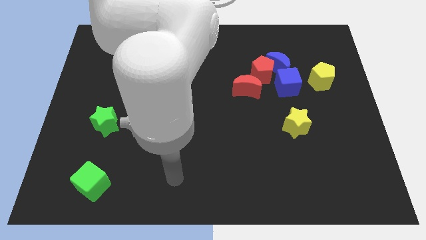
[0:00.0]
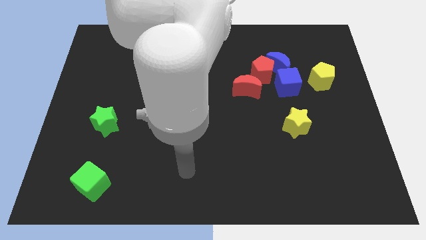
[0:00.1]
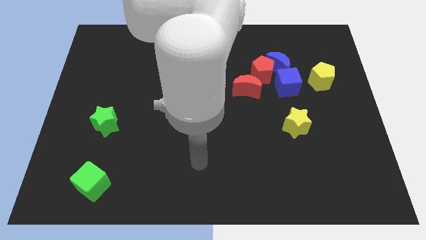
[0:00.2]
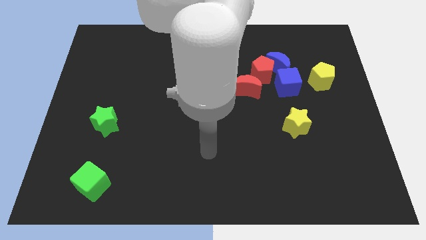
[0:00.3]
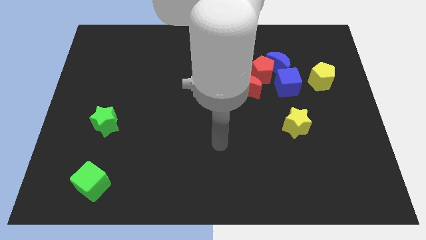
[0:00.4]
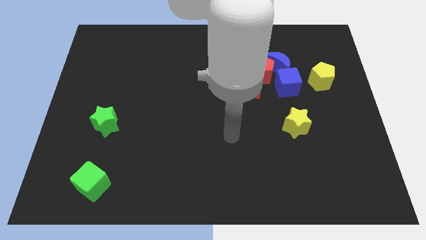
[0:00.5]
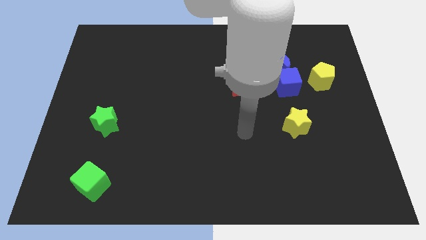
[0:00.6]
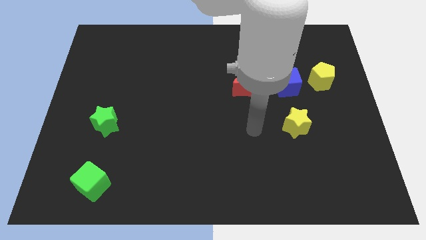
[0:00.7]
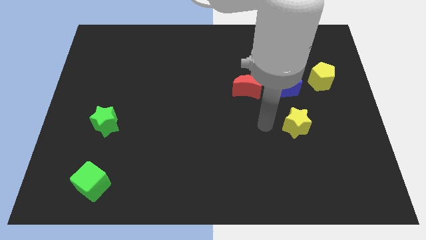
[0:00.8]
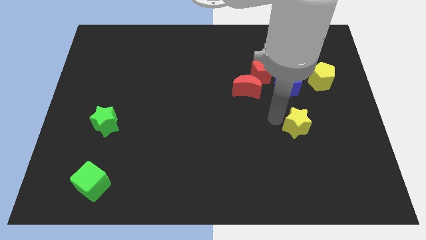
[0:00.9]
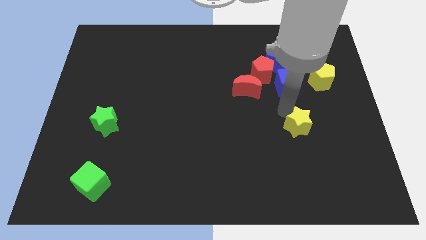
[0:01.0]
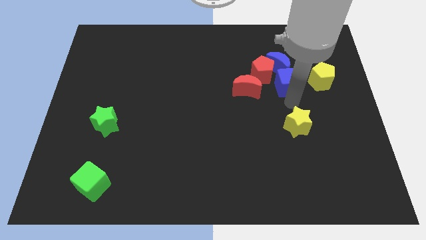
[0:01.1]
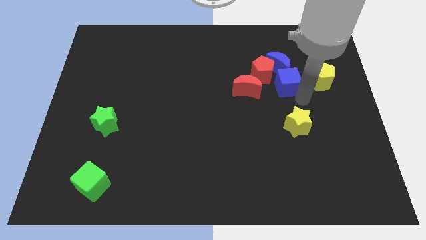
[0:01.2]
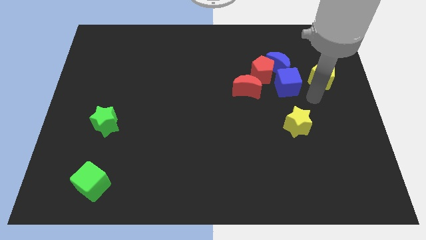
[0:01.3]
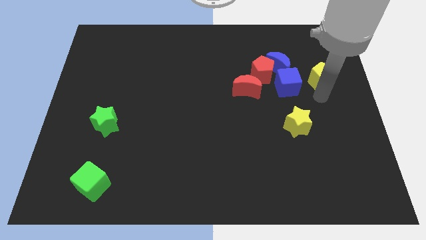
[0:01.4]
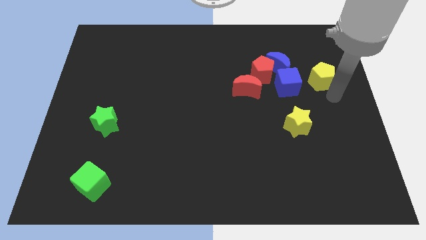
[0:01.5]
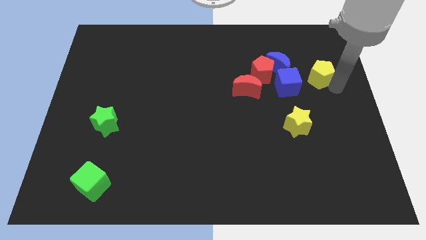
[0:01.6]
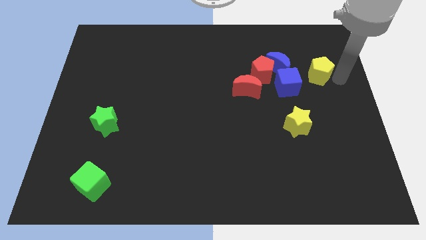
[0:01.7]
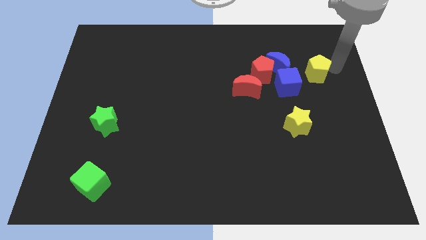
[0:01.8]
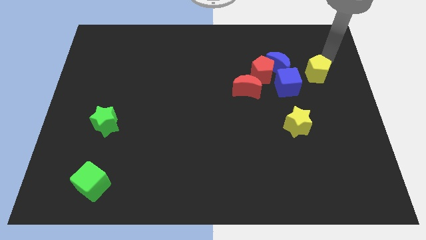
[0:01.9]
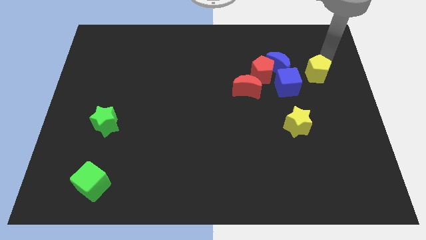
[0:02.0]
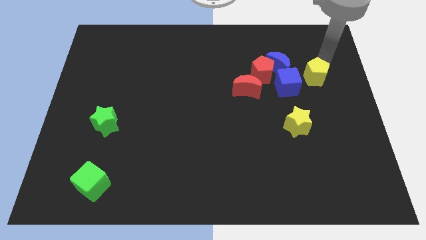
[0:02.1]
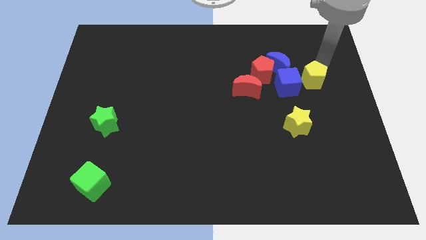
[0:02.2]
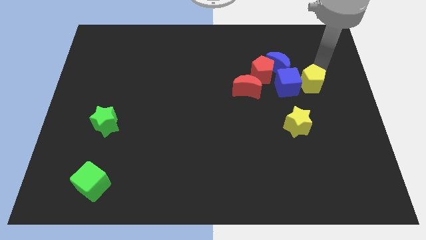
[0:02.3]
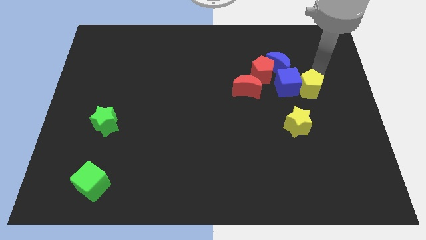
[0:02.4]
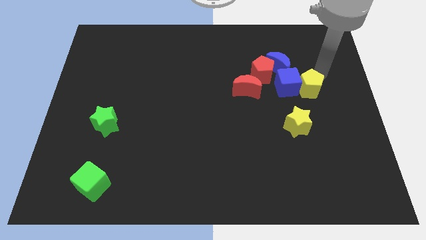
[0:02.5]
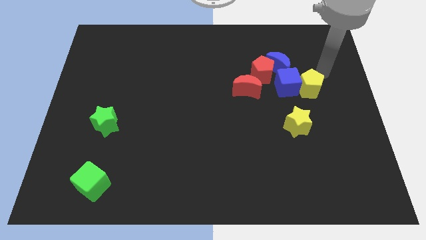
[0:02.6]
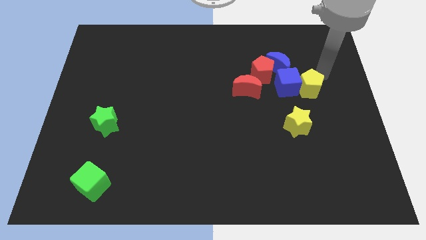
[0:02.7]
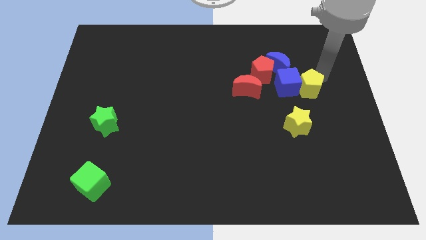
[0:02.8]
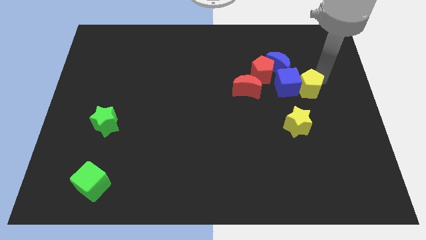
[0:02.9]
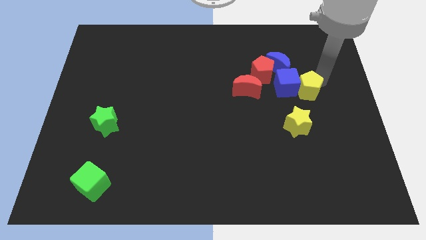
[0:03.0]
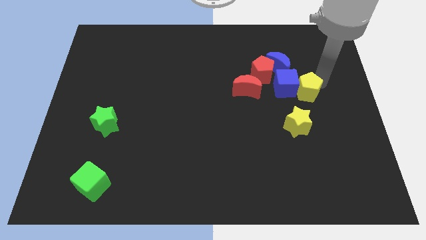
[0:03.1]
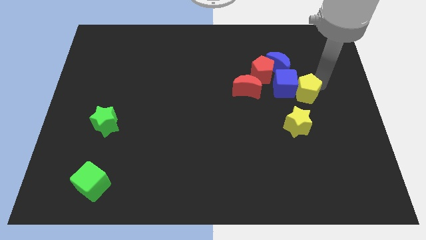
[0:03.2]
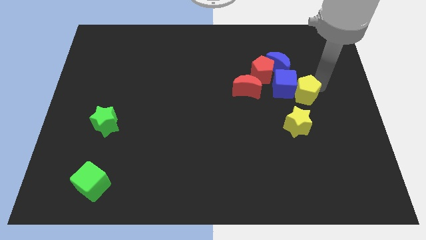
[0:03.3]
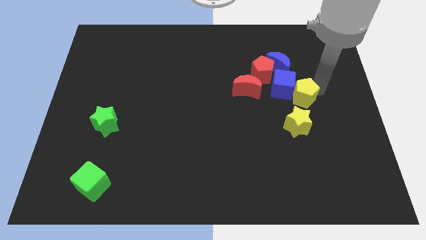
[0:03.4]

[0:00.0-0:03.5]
push the yellow pentagon slightly down and left

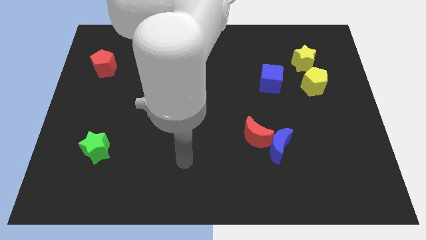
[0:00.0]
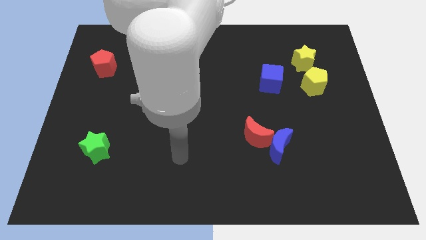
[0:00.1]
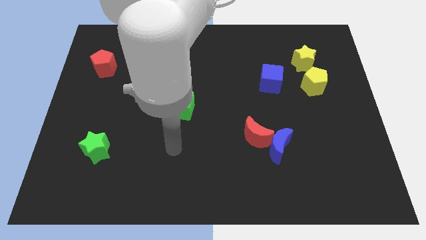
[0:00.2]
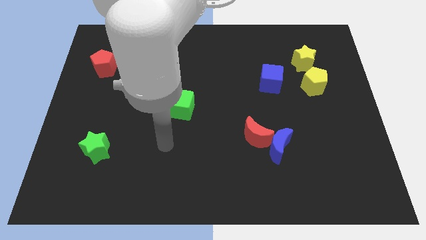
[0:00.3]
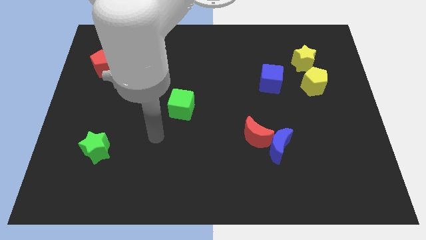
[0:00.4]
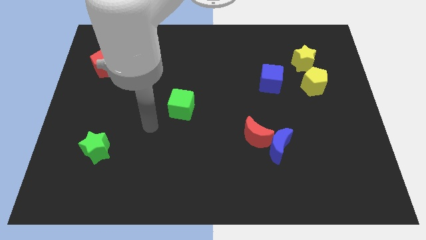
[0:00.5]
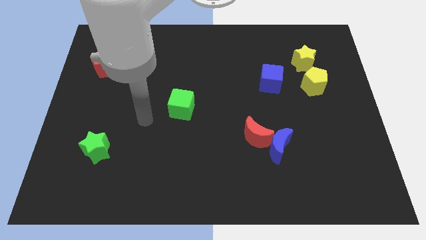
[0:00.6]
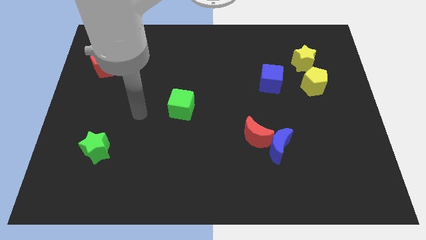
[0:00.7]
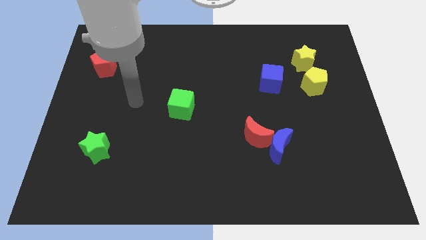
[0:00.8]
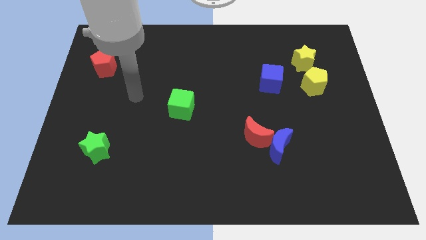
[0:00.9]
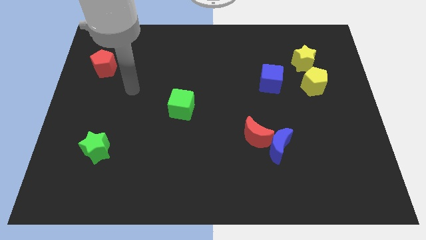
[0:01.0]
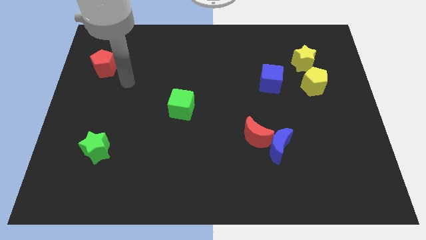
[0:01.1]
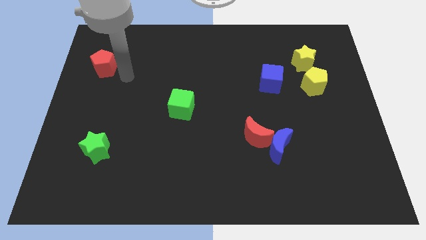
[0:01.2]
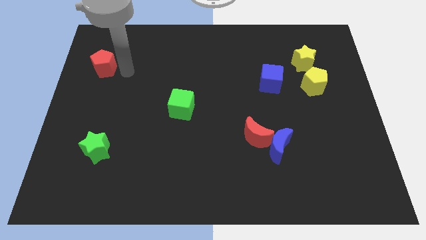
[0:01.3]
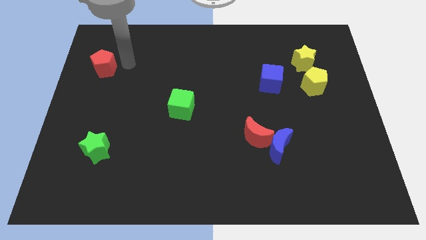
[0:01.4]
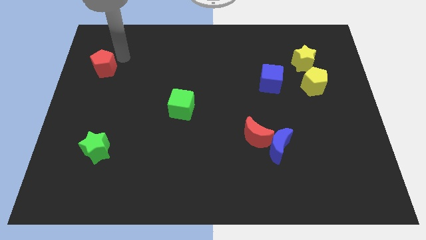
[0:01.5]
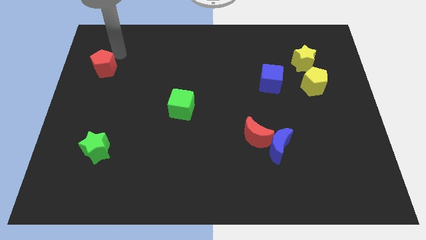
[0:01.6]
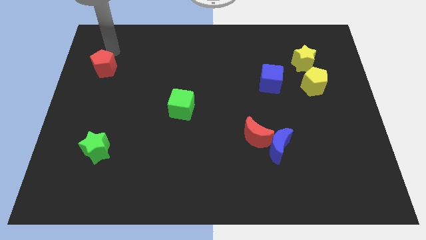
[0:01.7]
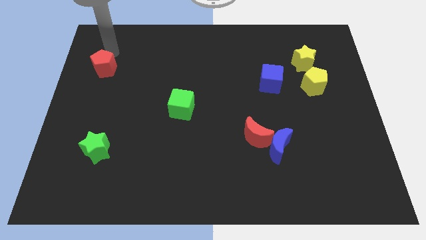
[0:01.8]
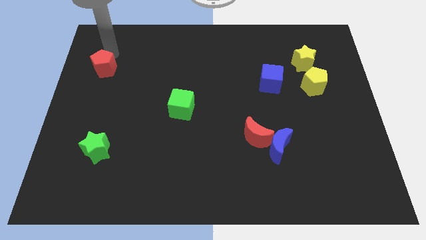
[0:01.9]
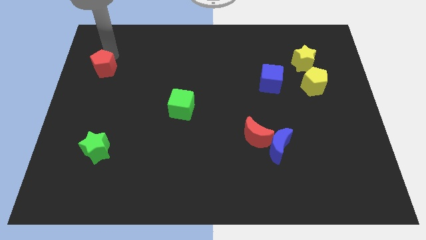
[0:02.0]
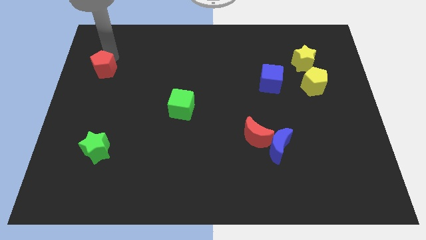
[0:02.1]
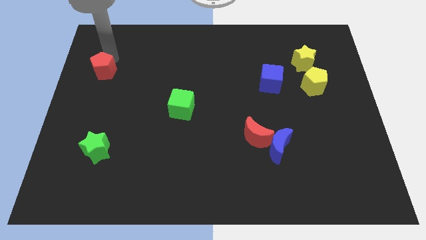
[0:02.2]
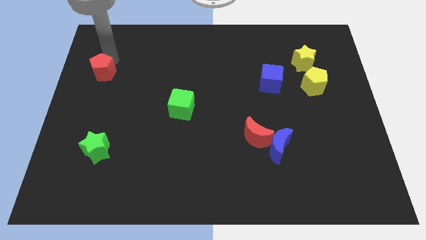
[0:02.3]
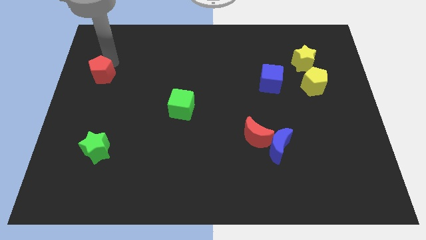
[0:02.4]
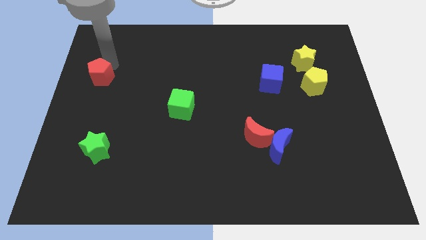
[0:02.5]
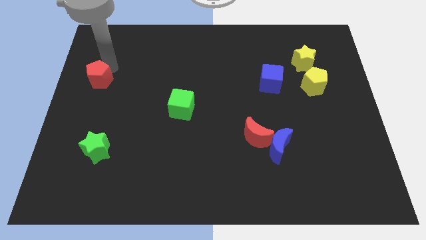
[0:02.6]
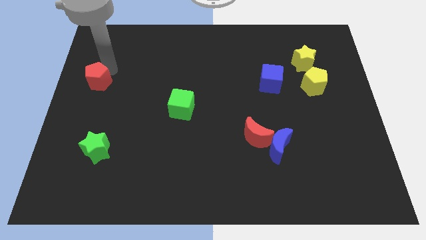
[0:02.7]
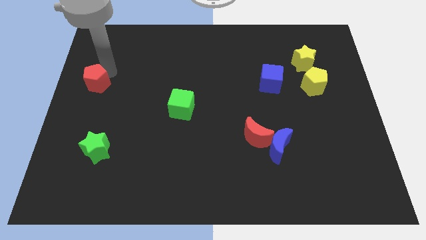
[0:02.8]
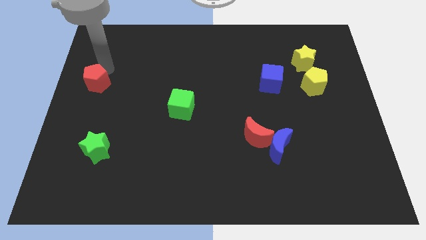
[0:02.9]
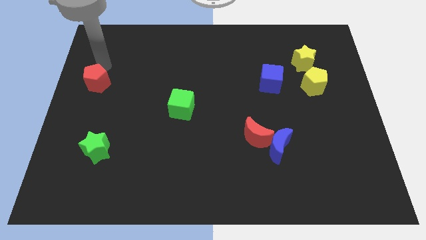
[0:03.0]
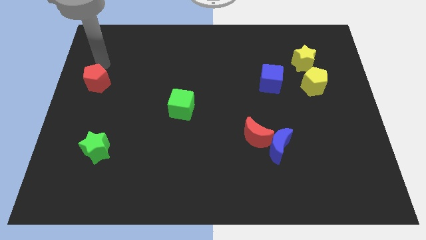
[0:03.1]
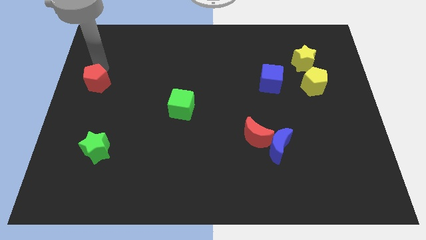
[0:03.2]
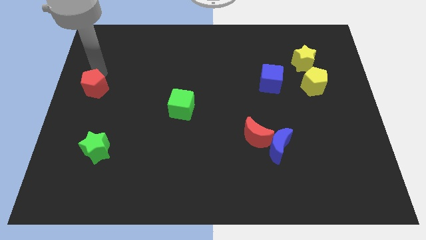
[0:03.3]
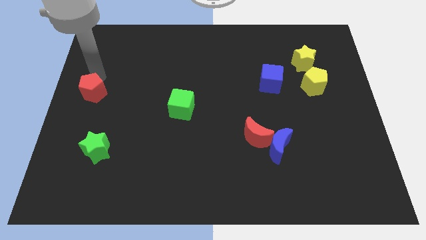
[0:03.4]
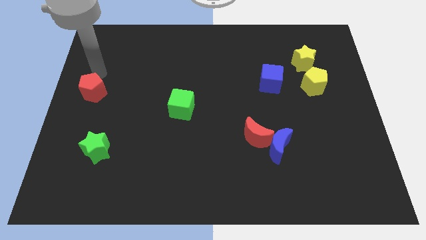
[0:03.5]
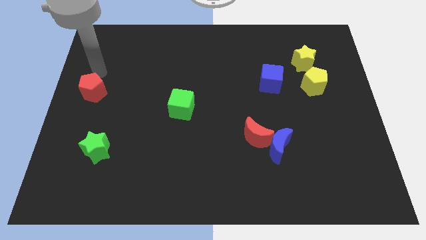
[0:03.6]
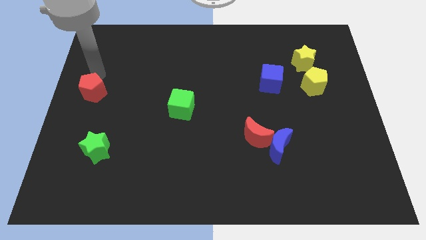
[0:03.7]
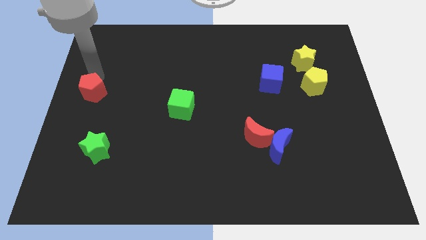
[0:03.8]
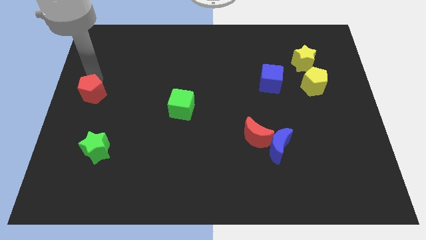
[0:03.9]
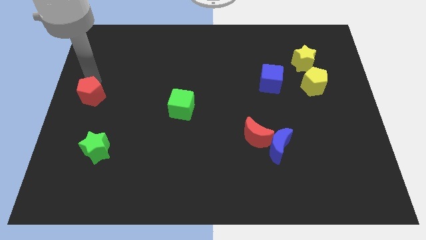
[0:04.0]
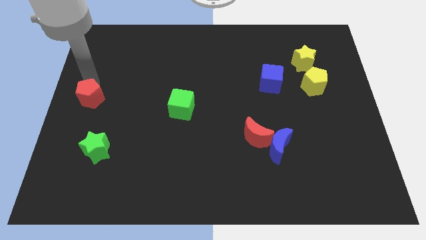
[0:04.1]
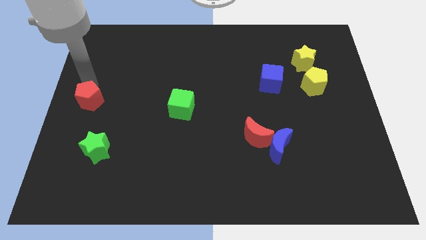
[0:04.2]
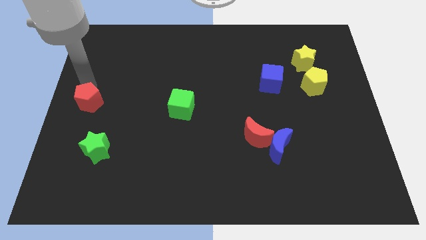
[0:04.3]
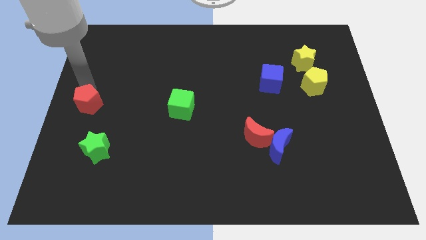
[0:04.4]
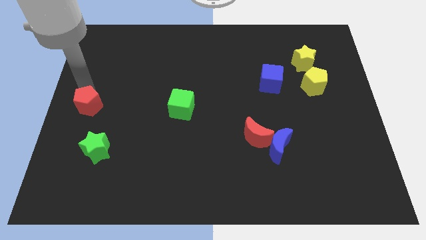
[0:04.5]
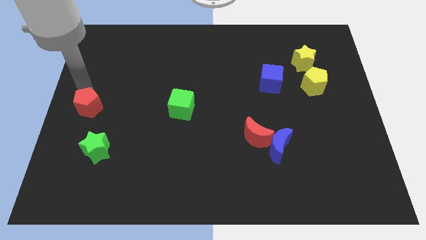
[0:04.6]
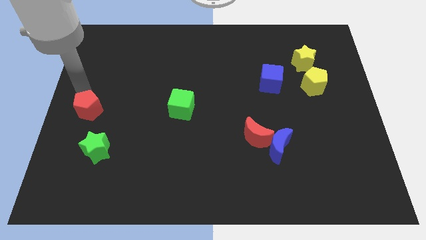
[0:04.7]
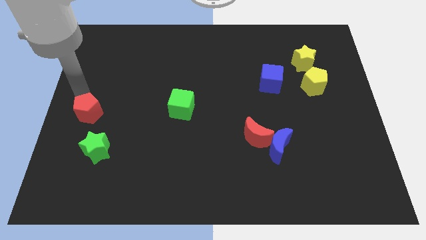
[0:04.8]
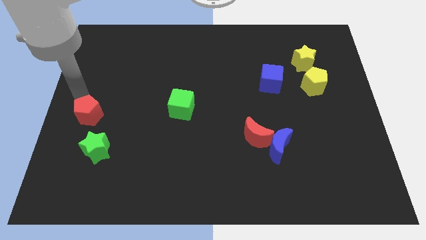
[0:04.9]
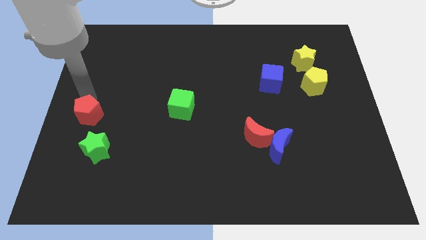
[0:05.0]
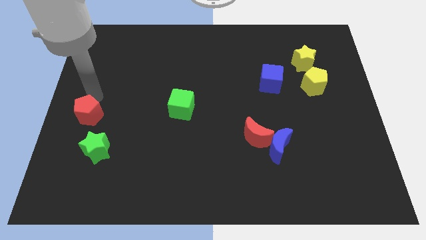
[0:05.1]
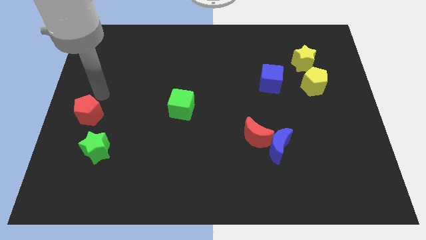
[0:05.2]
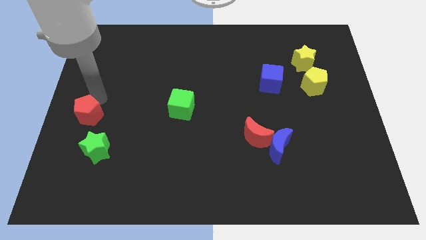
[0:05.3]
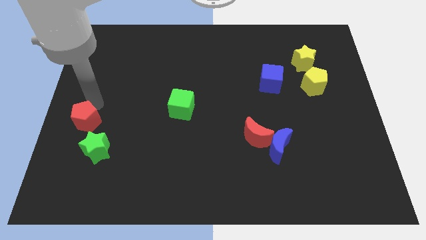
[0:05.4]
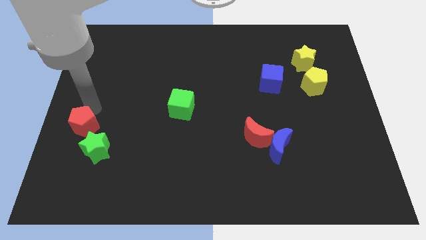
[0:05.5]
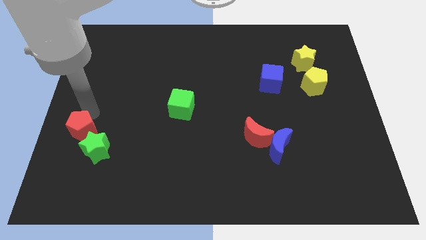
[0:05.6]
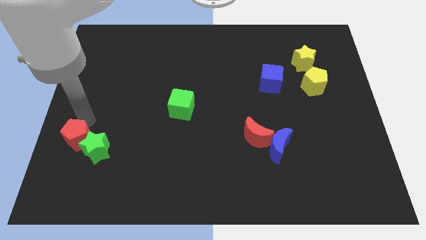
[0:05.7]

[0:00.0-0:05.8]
move the red pentagon down
